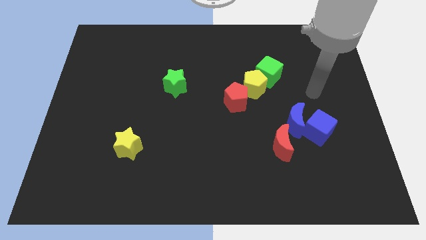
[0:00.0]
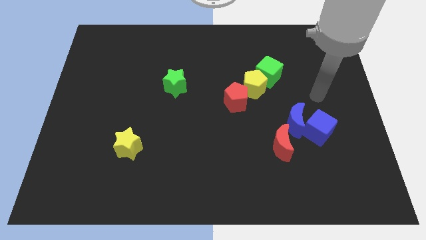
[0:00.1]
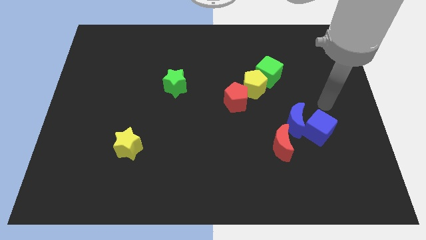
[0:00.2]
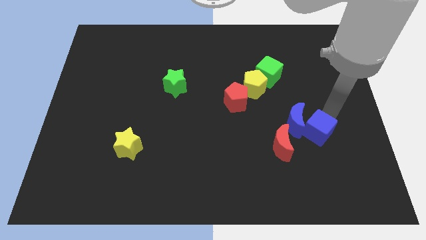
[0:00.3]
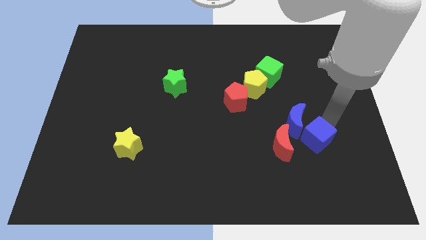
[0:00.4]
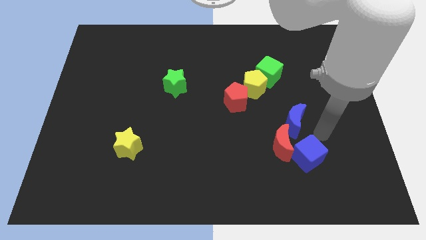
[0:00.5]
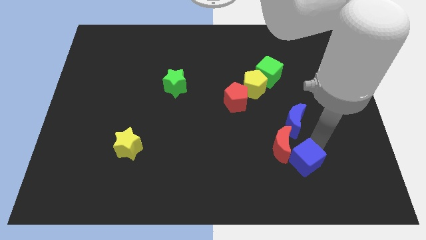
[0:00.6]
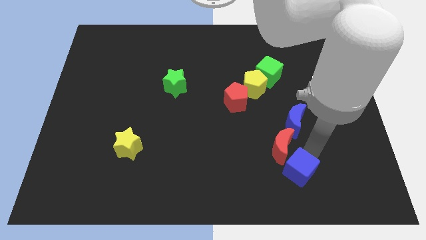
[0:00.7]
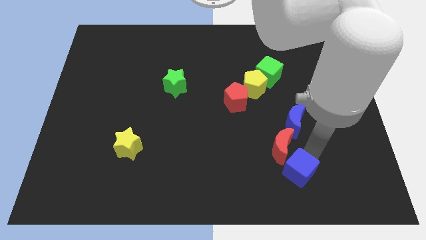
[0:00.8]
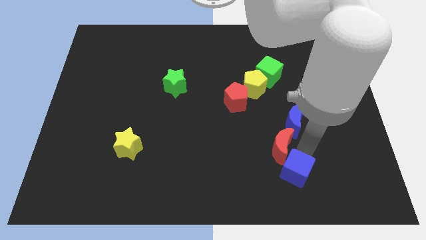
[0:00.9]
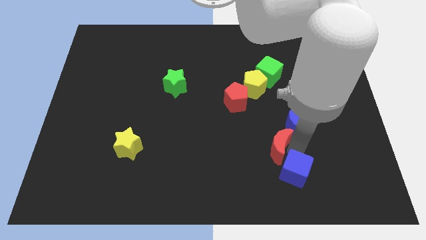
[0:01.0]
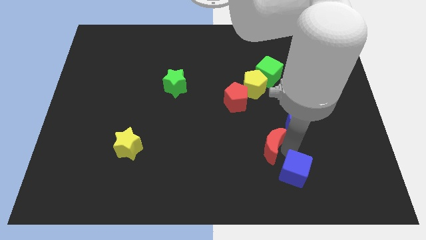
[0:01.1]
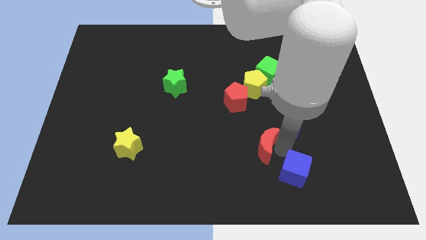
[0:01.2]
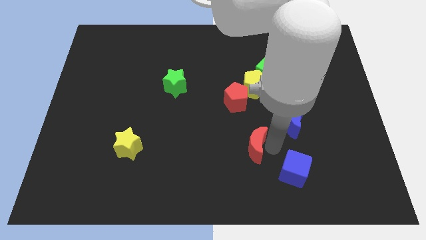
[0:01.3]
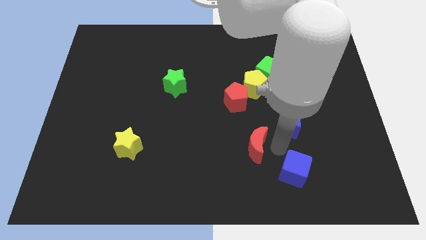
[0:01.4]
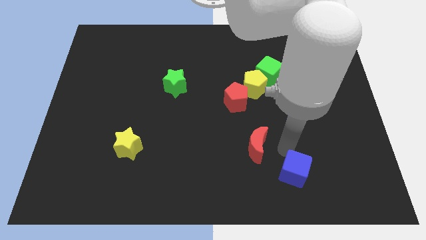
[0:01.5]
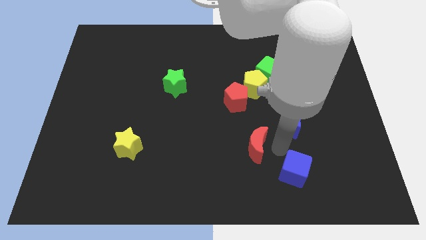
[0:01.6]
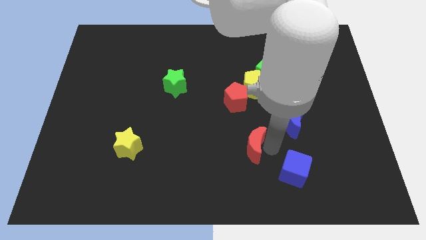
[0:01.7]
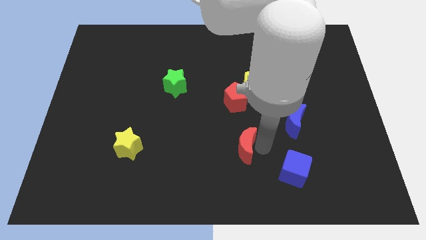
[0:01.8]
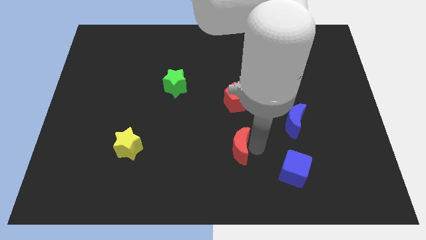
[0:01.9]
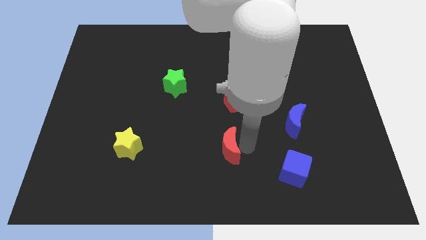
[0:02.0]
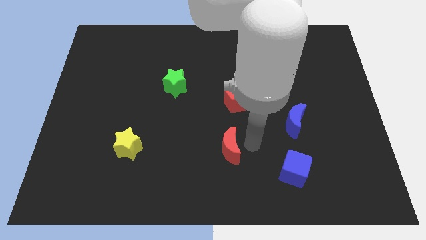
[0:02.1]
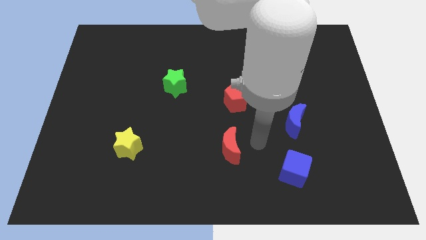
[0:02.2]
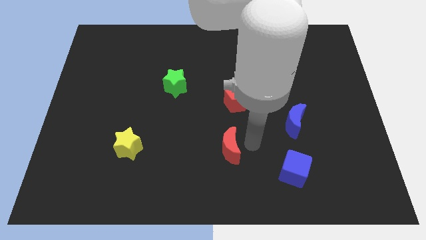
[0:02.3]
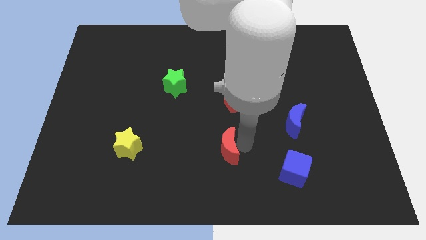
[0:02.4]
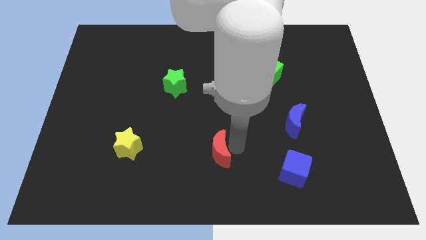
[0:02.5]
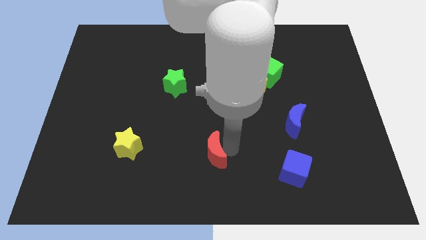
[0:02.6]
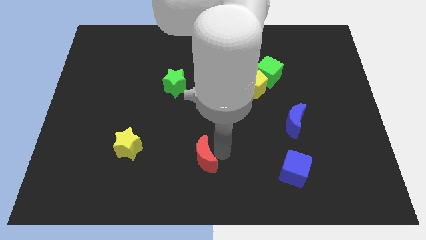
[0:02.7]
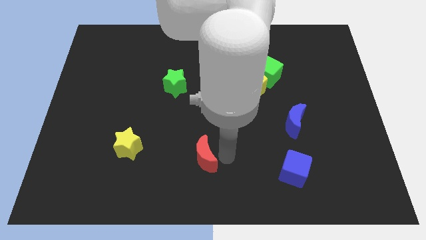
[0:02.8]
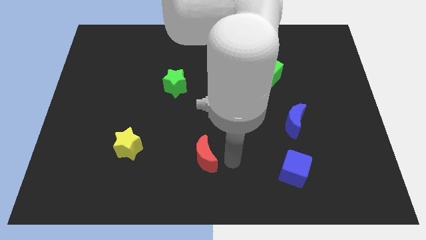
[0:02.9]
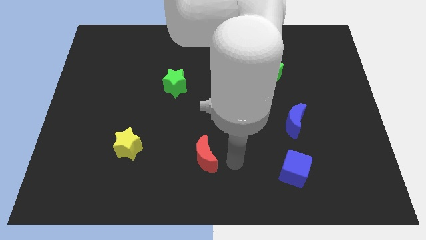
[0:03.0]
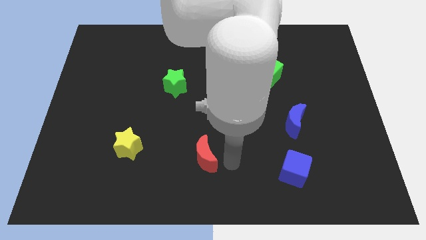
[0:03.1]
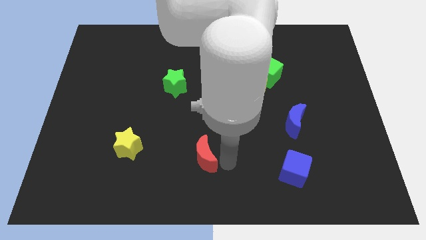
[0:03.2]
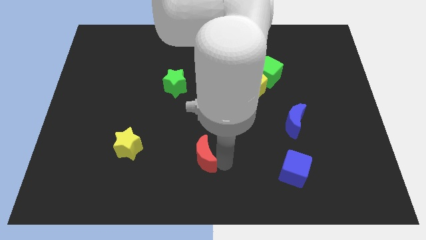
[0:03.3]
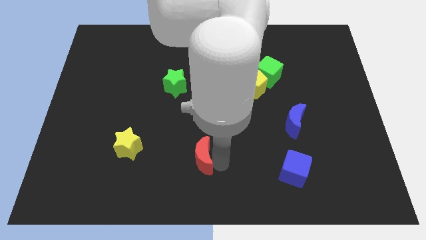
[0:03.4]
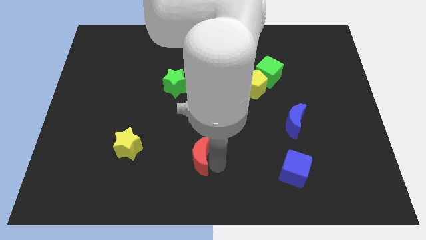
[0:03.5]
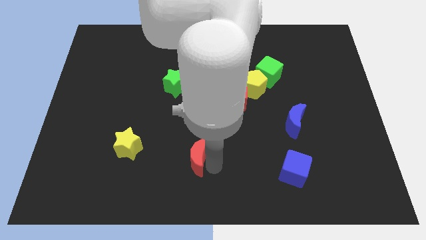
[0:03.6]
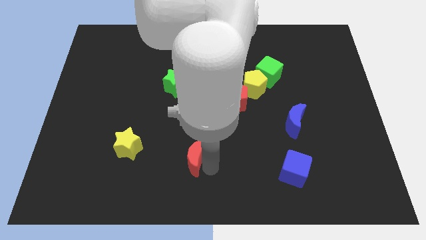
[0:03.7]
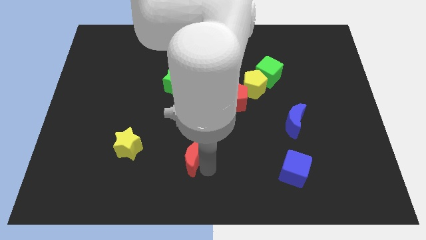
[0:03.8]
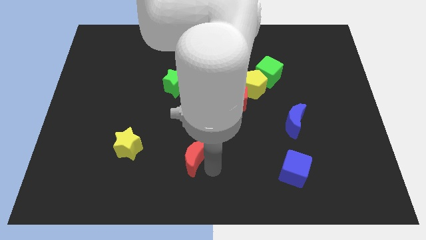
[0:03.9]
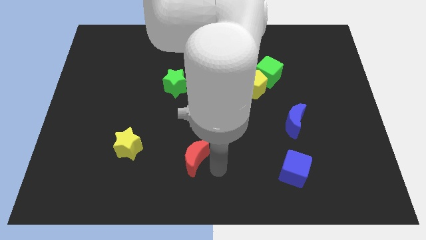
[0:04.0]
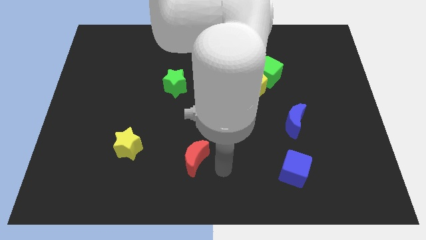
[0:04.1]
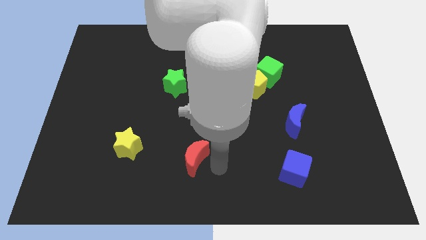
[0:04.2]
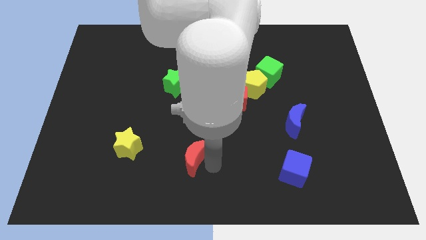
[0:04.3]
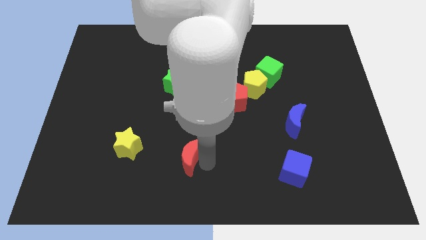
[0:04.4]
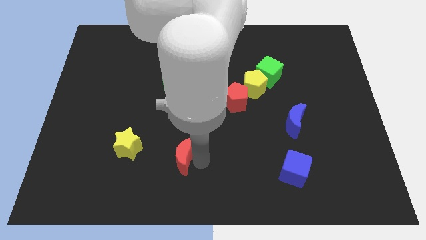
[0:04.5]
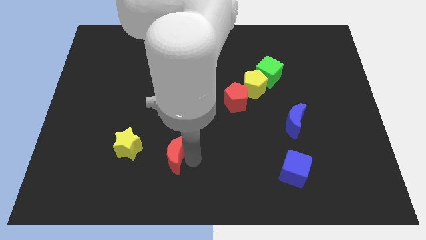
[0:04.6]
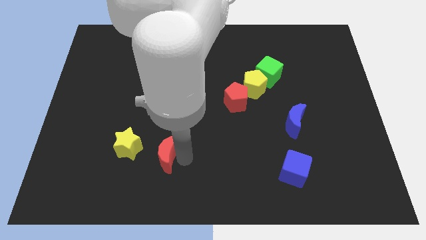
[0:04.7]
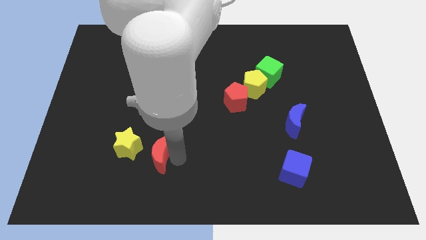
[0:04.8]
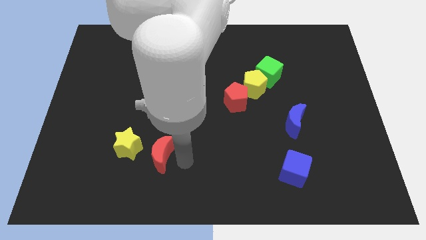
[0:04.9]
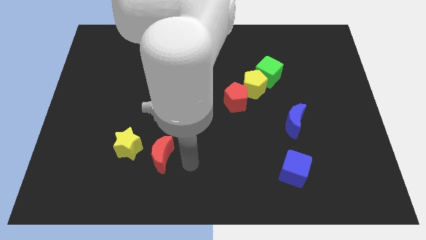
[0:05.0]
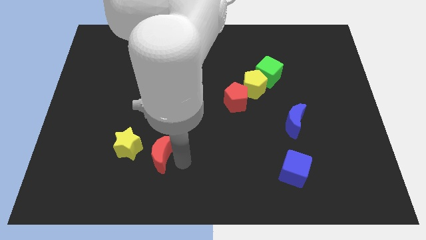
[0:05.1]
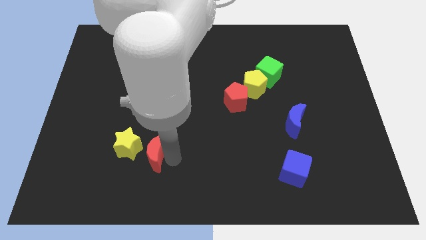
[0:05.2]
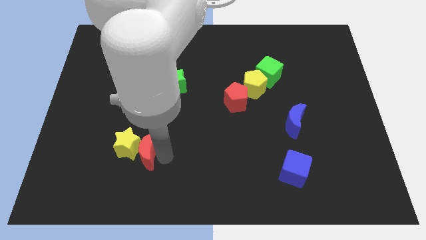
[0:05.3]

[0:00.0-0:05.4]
move the red moon towards the yellow star

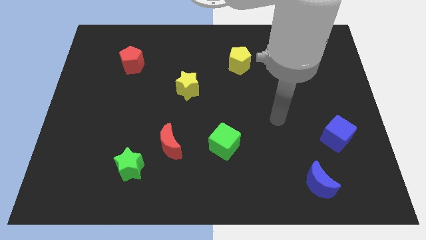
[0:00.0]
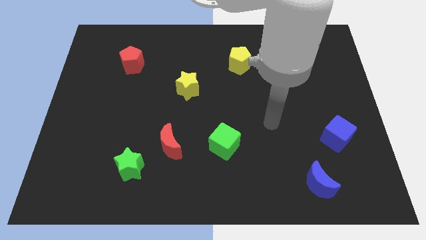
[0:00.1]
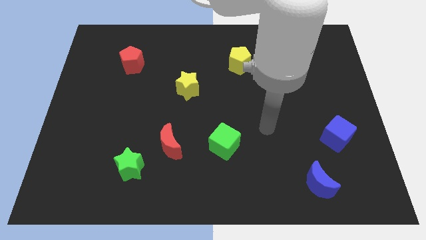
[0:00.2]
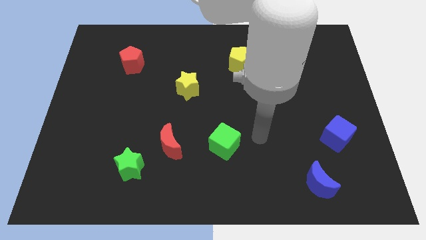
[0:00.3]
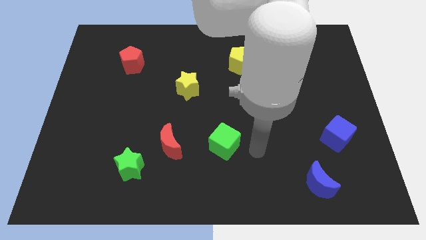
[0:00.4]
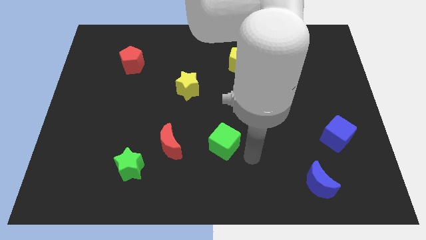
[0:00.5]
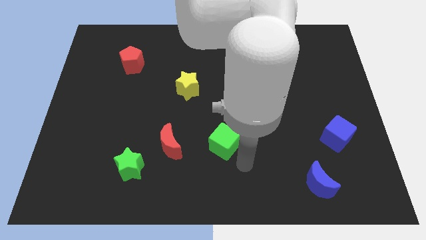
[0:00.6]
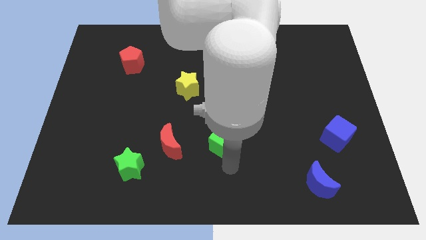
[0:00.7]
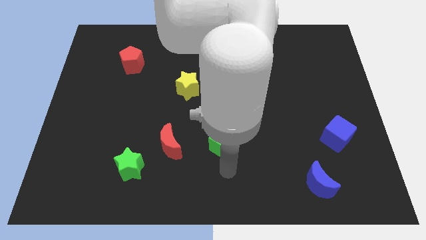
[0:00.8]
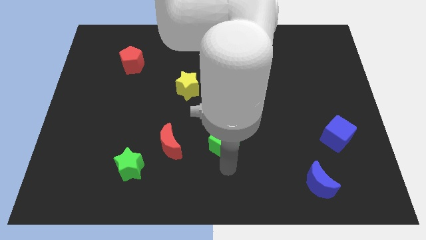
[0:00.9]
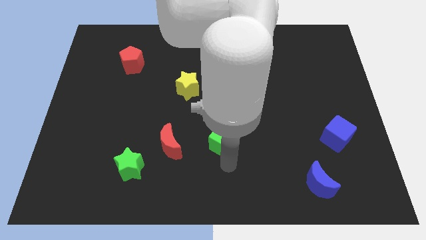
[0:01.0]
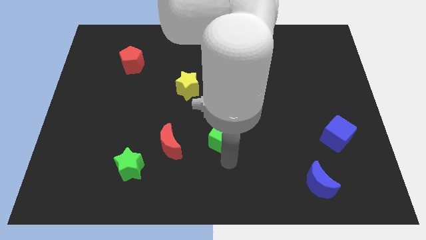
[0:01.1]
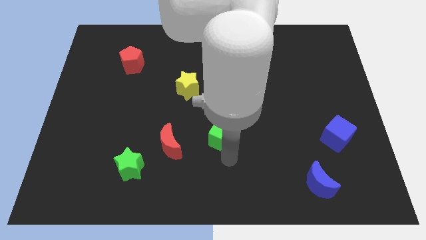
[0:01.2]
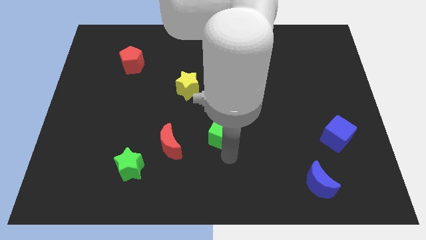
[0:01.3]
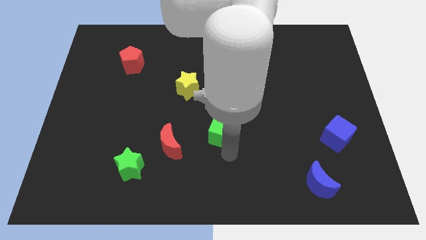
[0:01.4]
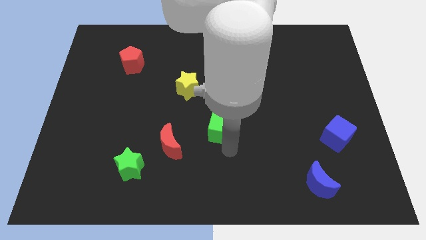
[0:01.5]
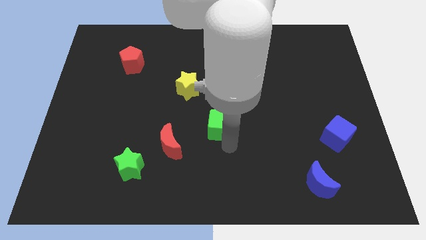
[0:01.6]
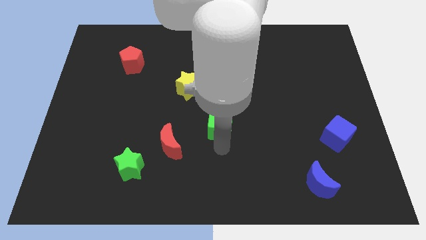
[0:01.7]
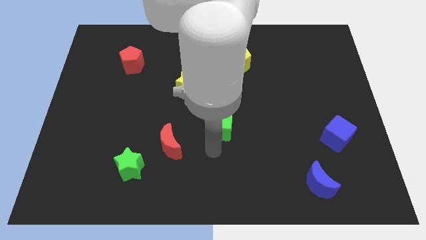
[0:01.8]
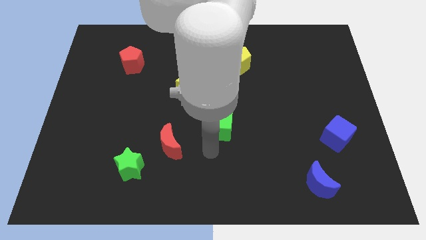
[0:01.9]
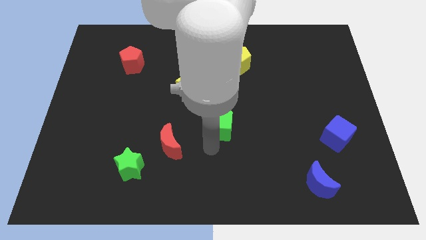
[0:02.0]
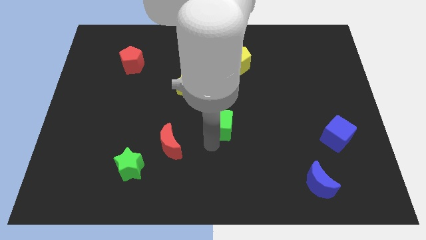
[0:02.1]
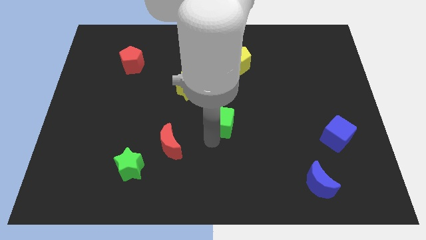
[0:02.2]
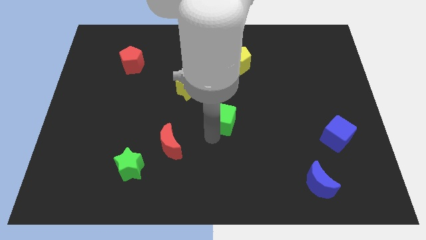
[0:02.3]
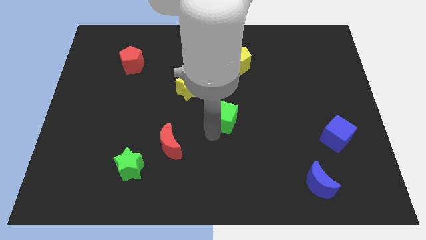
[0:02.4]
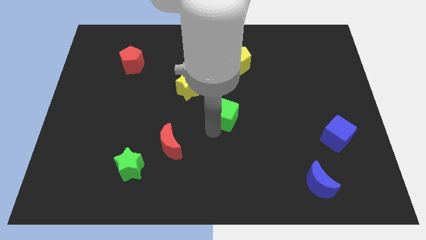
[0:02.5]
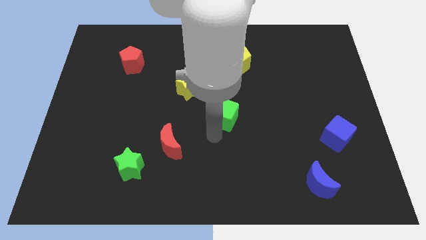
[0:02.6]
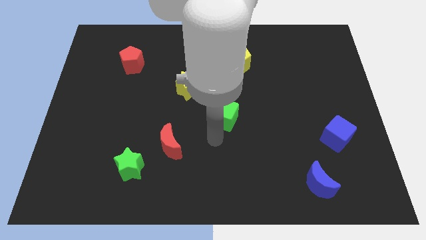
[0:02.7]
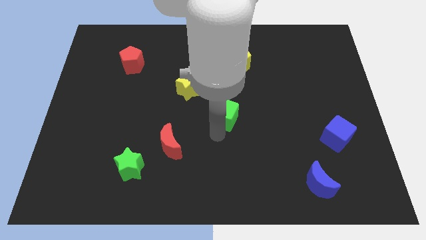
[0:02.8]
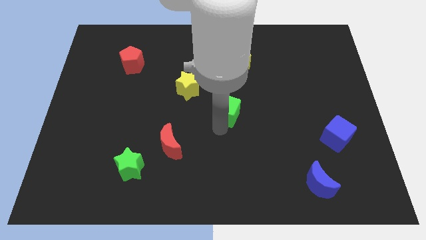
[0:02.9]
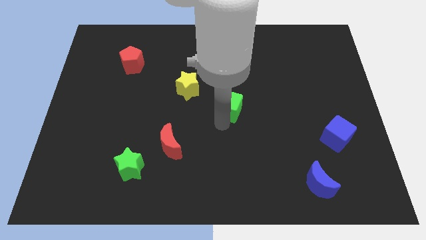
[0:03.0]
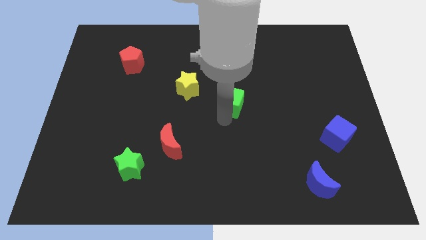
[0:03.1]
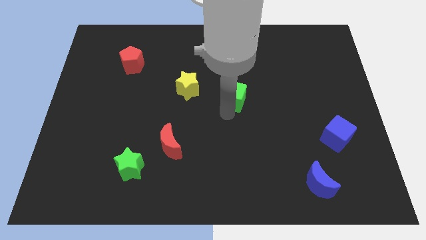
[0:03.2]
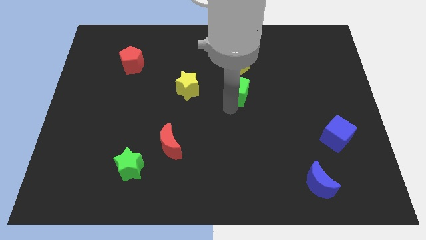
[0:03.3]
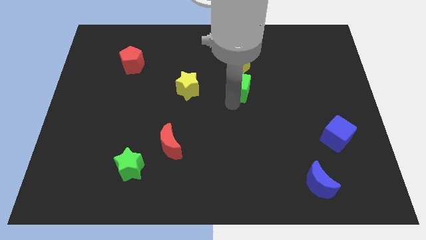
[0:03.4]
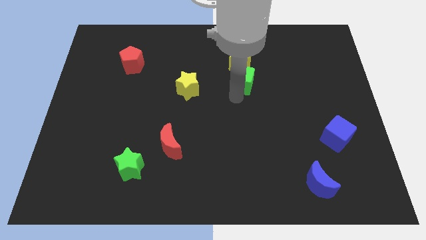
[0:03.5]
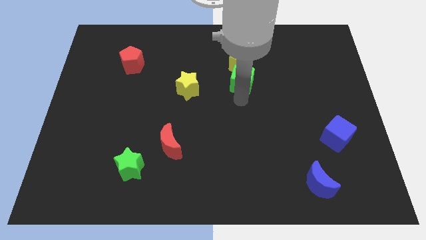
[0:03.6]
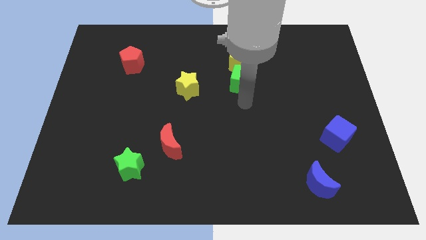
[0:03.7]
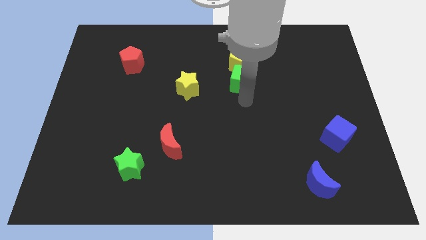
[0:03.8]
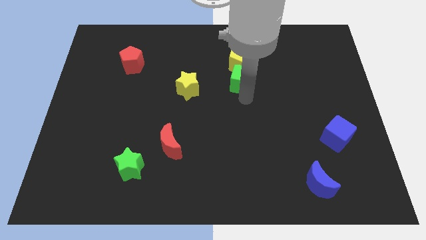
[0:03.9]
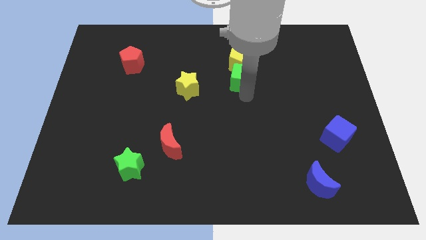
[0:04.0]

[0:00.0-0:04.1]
slide the green cube next to the yellow pentagon
